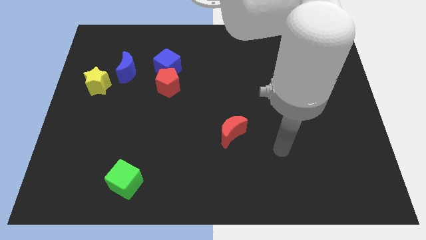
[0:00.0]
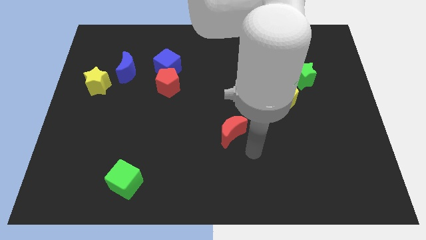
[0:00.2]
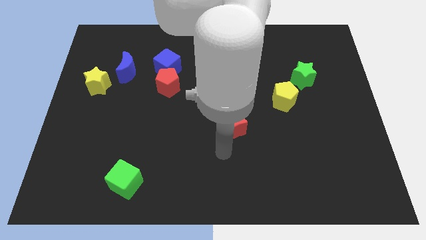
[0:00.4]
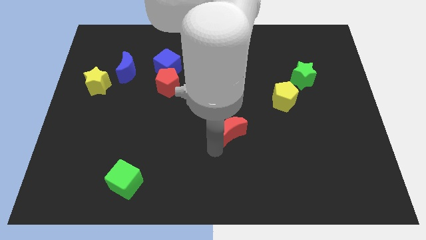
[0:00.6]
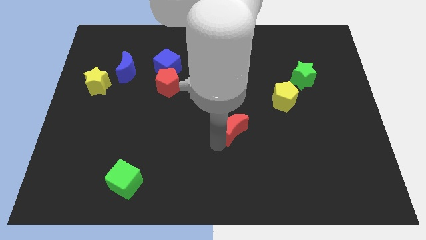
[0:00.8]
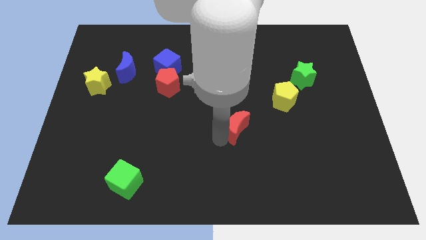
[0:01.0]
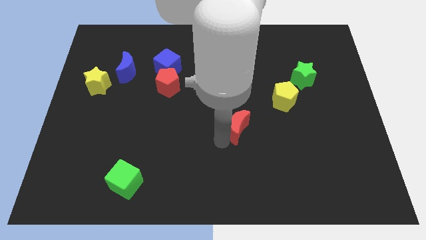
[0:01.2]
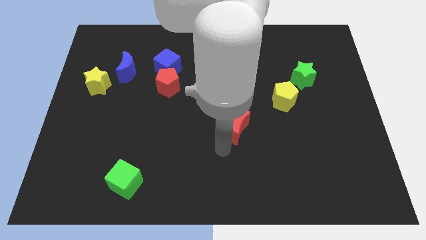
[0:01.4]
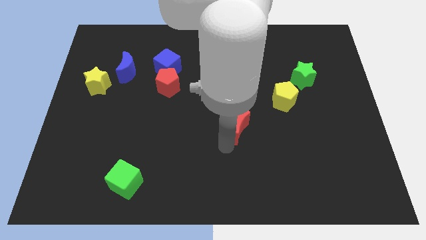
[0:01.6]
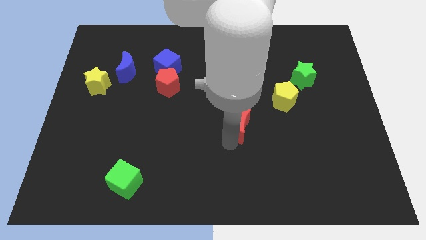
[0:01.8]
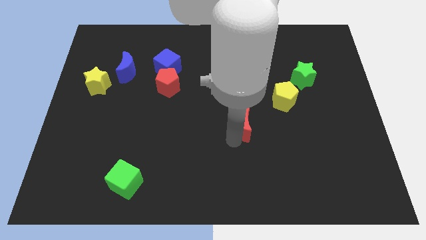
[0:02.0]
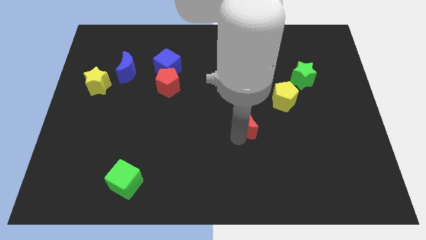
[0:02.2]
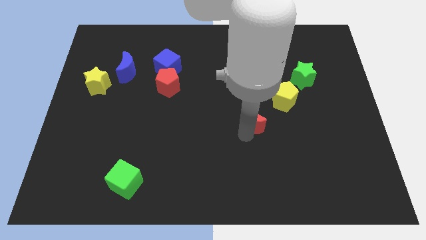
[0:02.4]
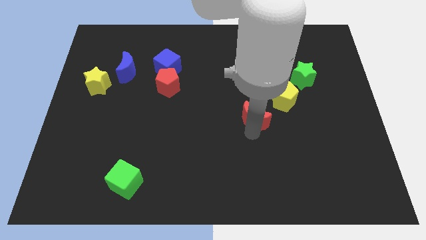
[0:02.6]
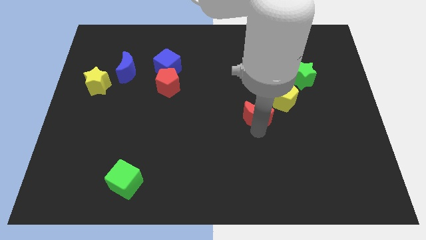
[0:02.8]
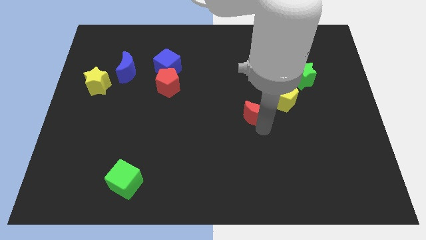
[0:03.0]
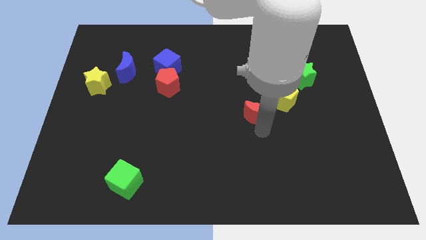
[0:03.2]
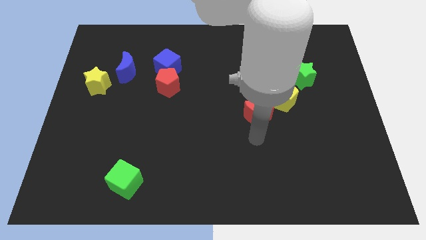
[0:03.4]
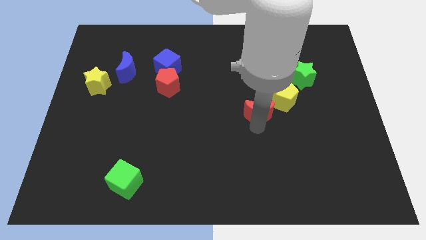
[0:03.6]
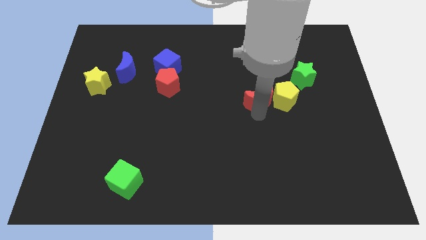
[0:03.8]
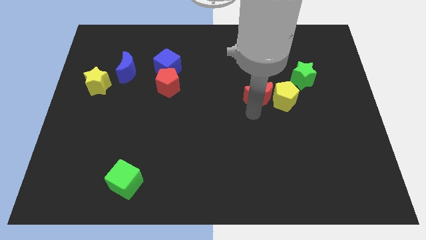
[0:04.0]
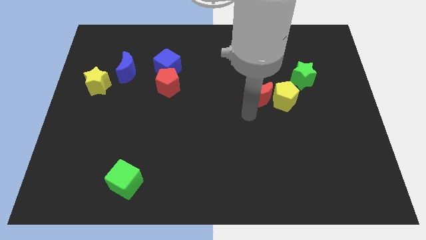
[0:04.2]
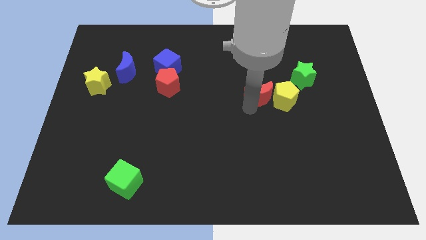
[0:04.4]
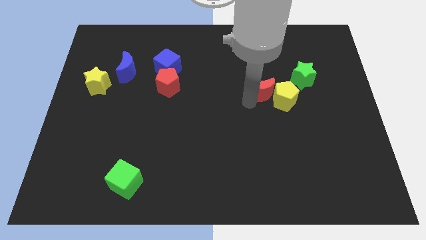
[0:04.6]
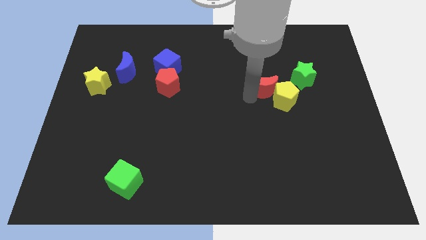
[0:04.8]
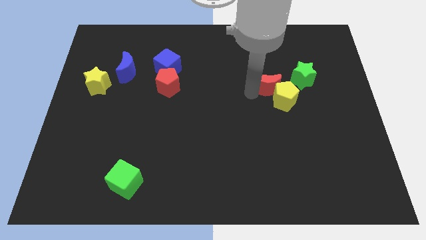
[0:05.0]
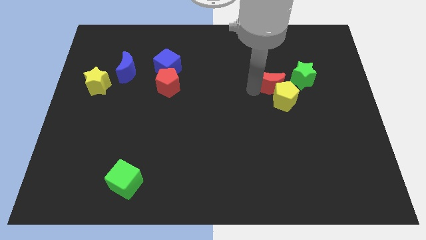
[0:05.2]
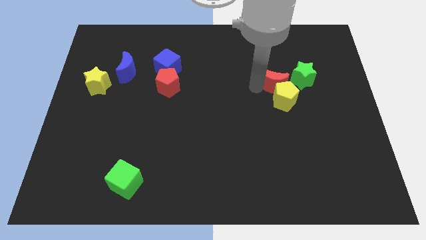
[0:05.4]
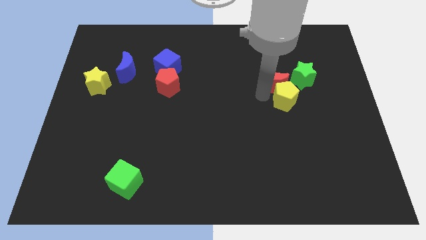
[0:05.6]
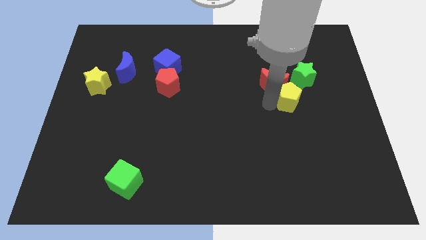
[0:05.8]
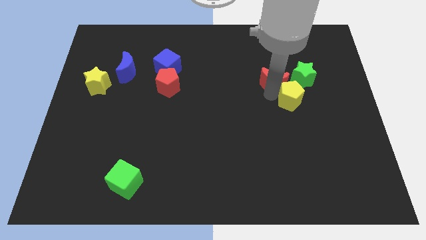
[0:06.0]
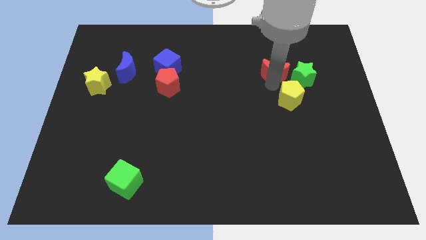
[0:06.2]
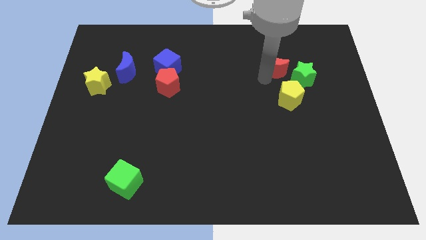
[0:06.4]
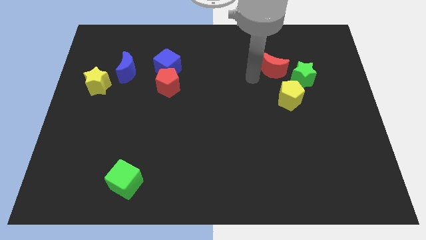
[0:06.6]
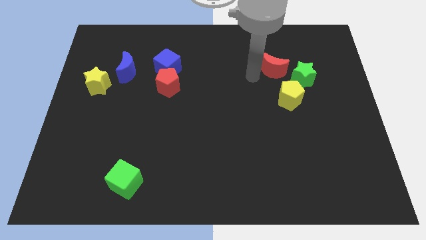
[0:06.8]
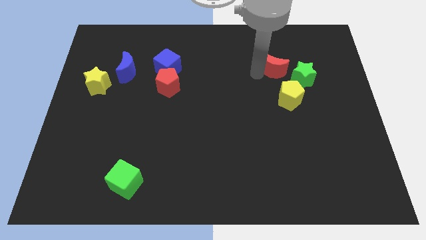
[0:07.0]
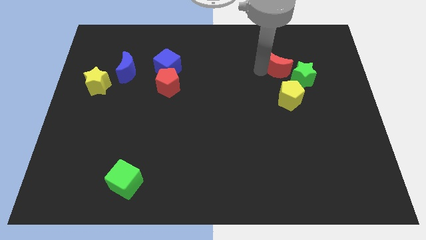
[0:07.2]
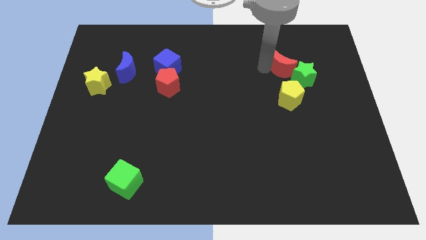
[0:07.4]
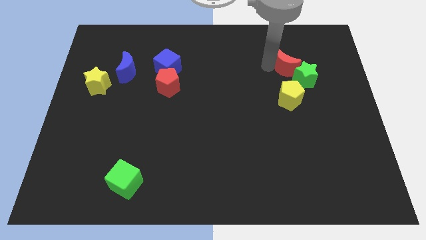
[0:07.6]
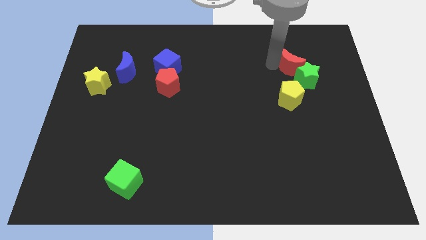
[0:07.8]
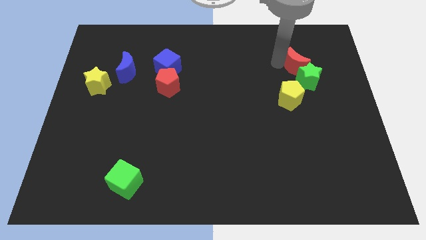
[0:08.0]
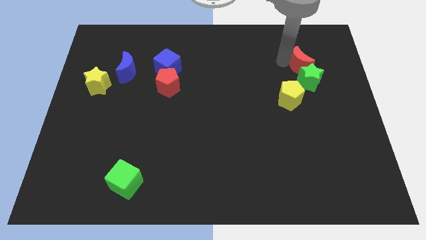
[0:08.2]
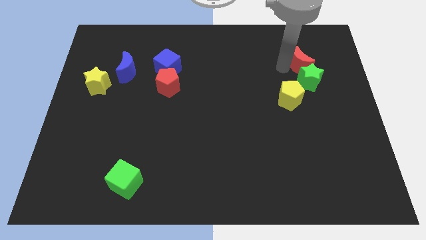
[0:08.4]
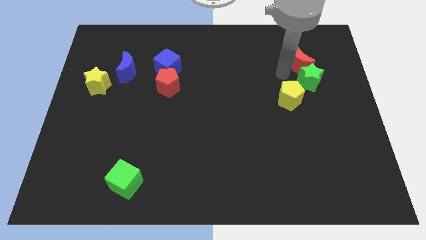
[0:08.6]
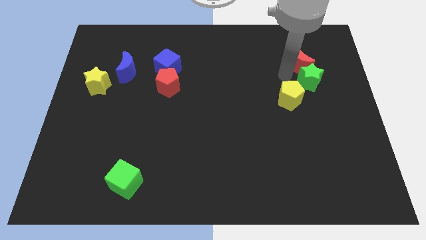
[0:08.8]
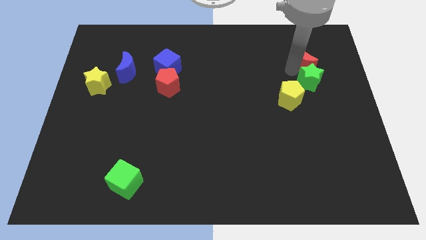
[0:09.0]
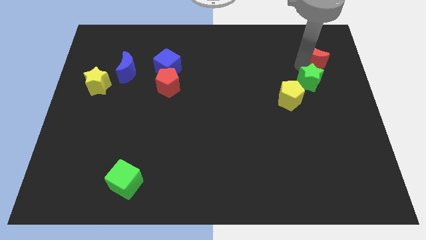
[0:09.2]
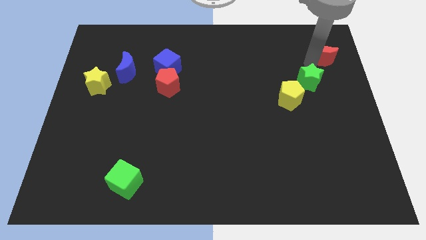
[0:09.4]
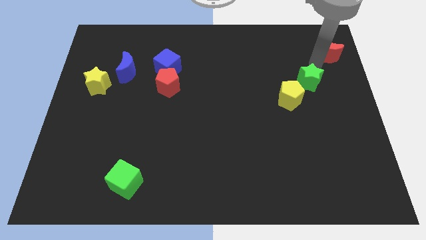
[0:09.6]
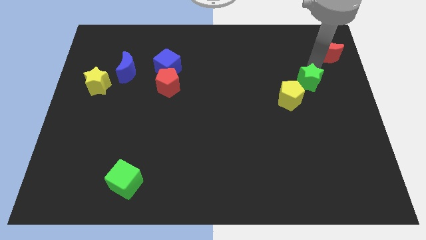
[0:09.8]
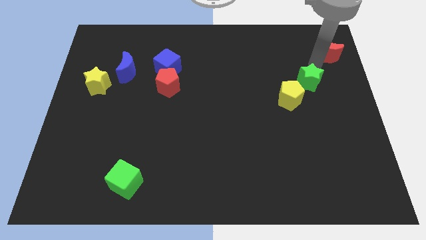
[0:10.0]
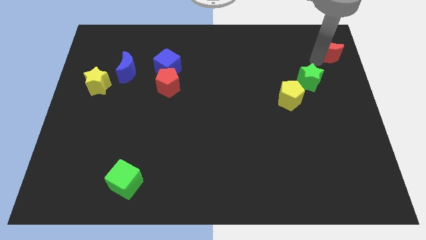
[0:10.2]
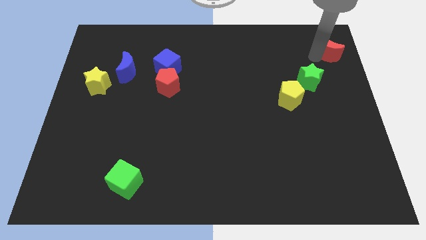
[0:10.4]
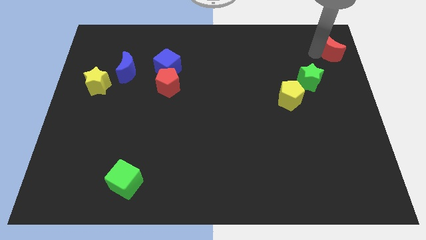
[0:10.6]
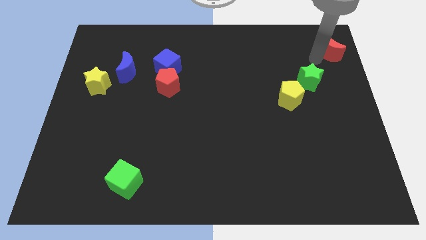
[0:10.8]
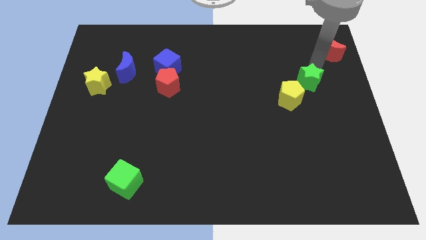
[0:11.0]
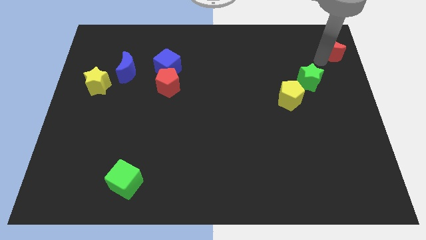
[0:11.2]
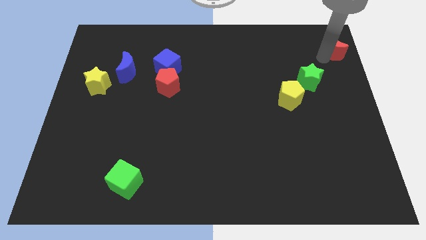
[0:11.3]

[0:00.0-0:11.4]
move the red moon to the top right of the board

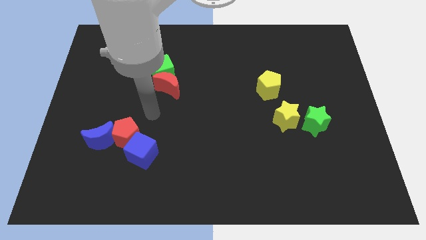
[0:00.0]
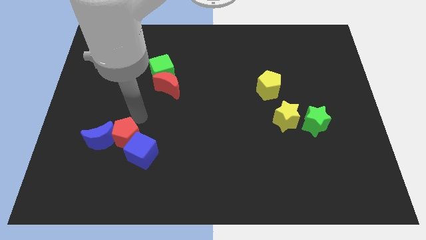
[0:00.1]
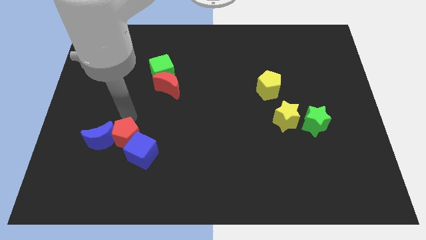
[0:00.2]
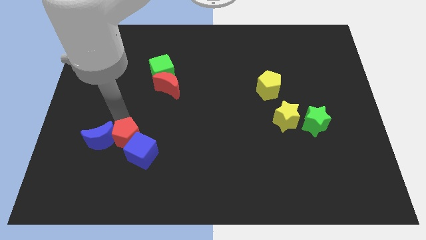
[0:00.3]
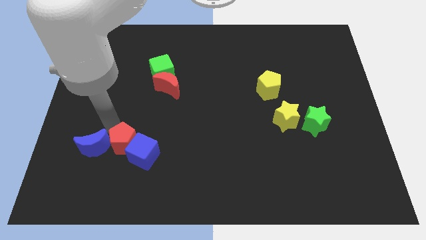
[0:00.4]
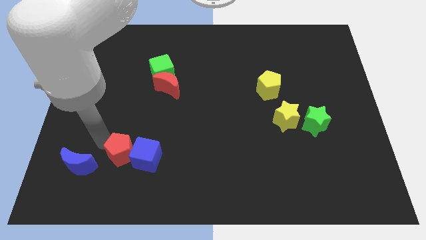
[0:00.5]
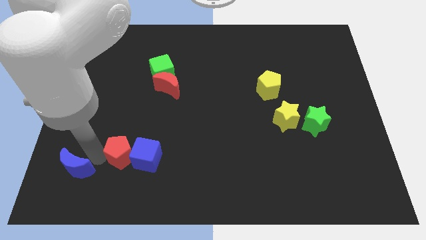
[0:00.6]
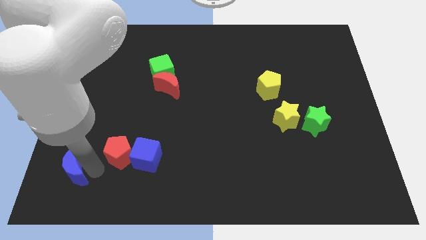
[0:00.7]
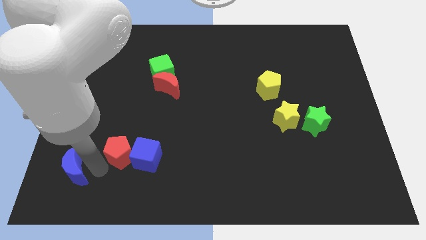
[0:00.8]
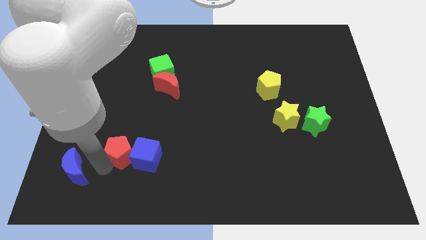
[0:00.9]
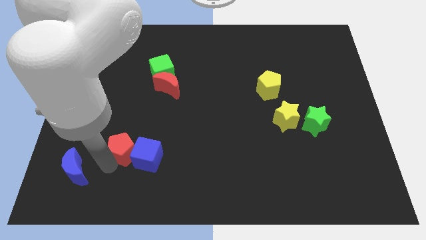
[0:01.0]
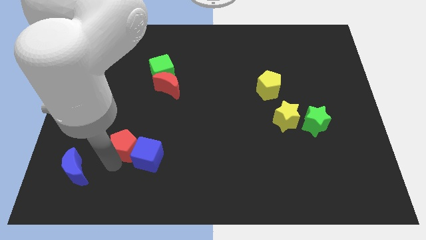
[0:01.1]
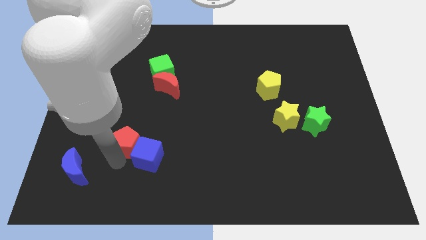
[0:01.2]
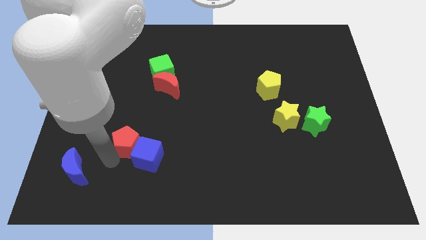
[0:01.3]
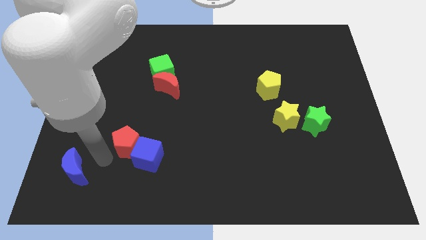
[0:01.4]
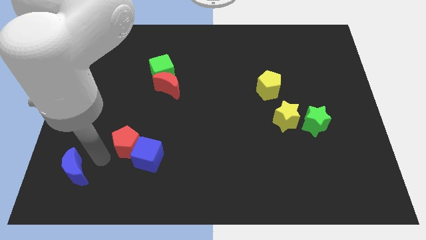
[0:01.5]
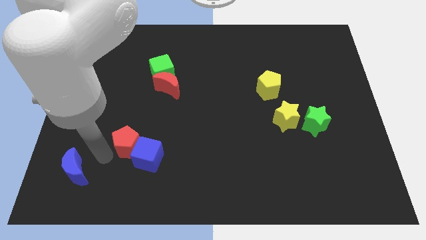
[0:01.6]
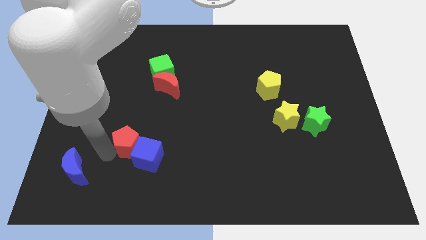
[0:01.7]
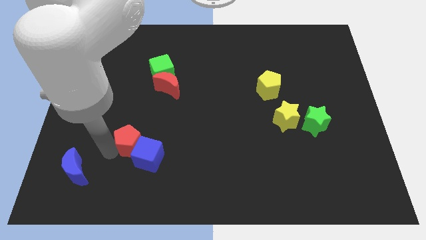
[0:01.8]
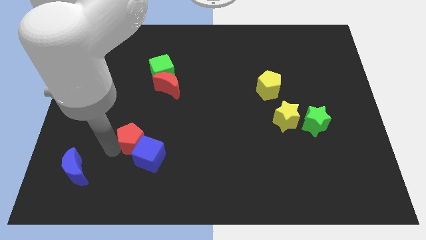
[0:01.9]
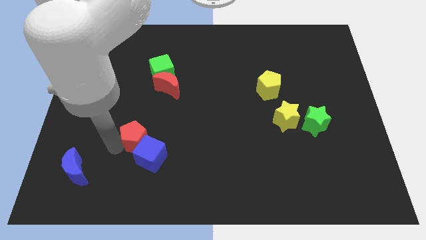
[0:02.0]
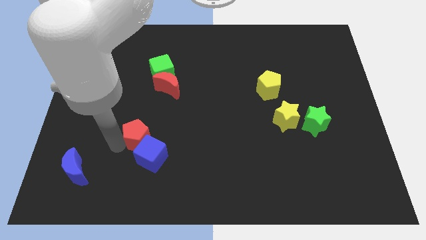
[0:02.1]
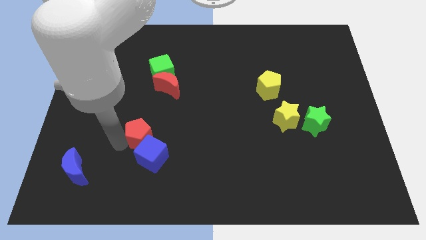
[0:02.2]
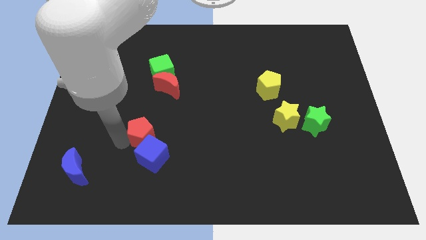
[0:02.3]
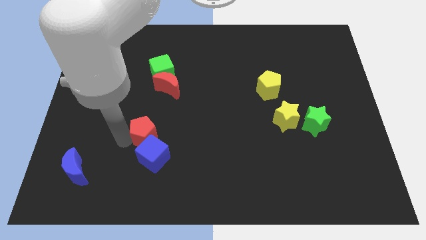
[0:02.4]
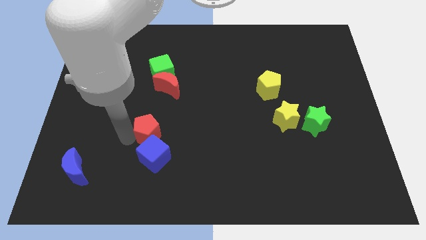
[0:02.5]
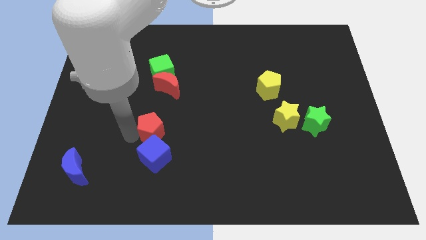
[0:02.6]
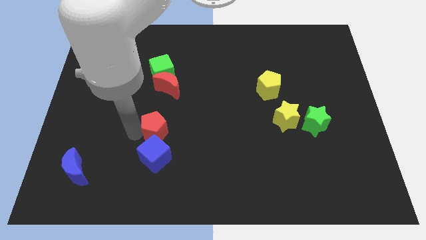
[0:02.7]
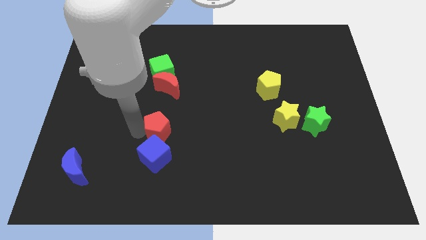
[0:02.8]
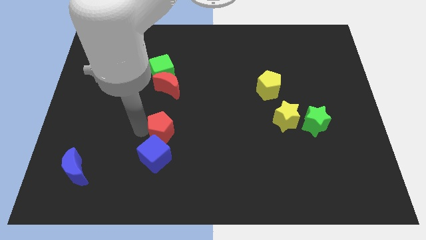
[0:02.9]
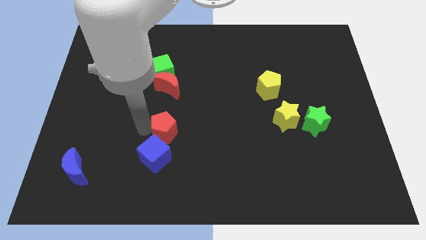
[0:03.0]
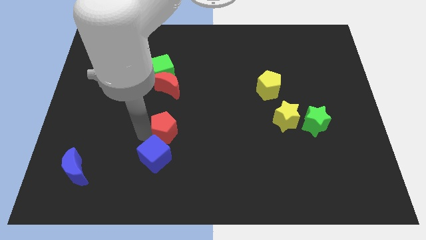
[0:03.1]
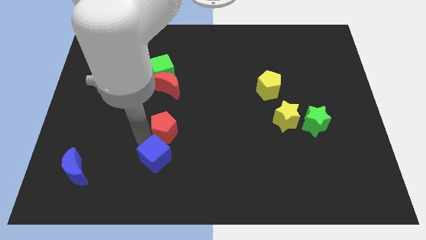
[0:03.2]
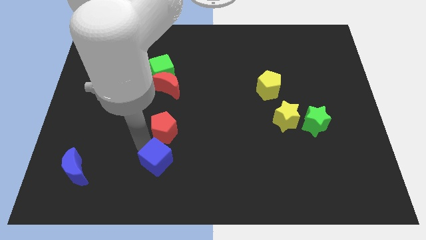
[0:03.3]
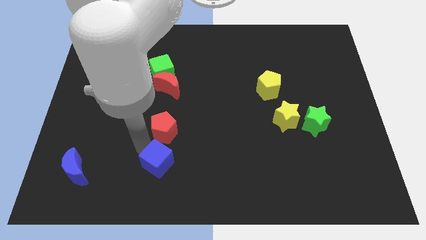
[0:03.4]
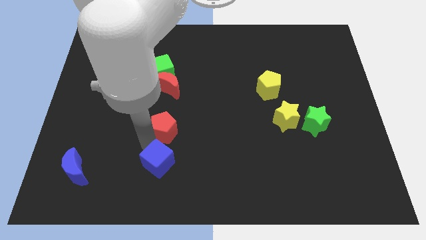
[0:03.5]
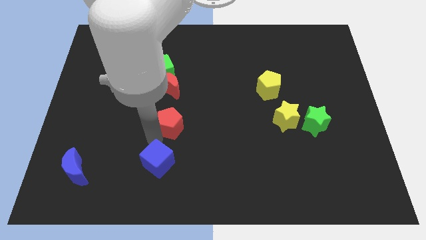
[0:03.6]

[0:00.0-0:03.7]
push the red pentagon to the center
